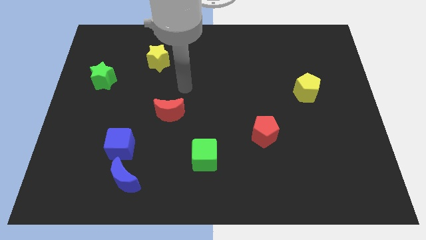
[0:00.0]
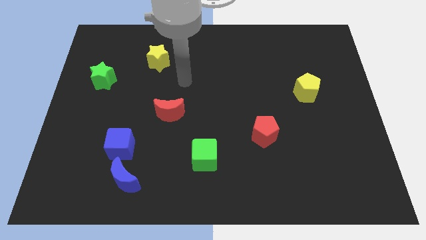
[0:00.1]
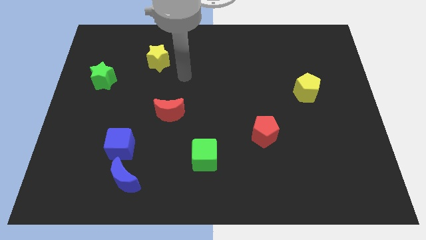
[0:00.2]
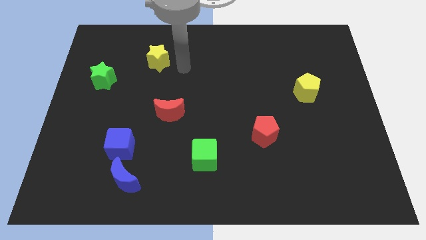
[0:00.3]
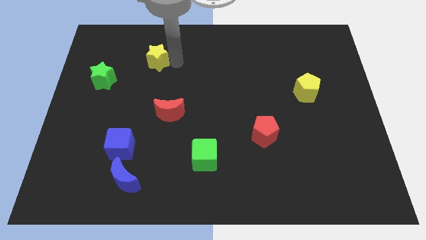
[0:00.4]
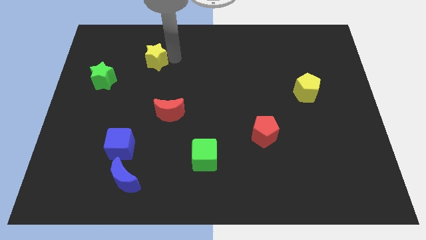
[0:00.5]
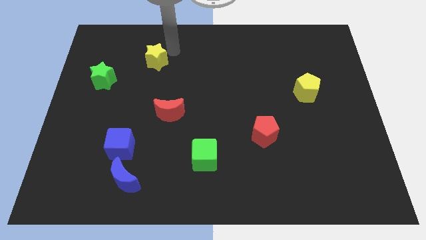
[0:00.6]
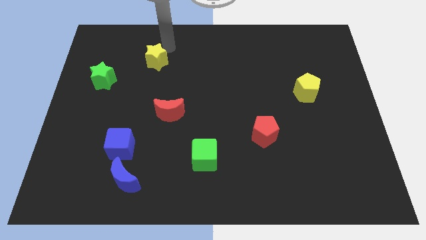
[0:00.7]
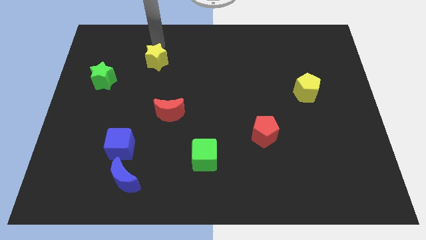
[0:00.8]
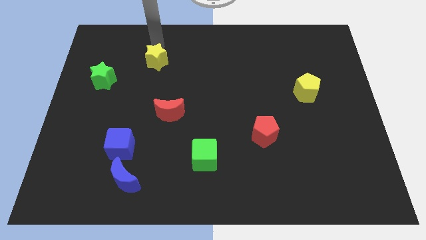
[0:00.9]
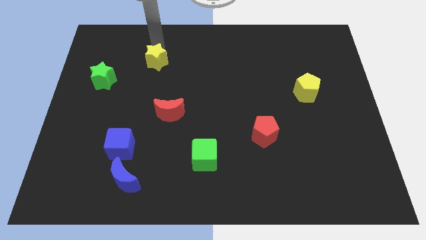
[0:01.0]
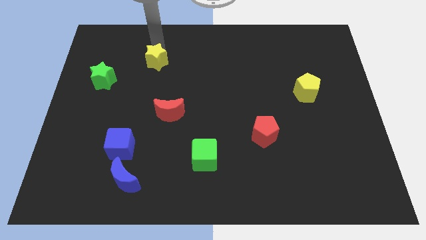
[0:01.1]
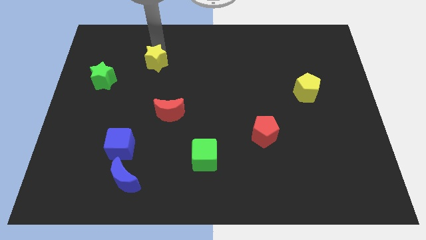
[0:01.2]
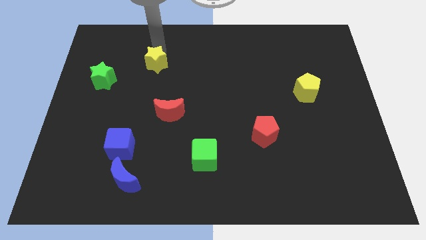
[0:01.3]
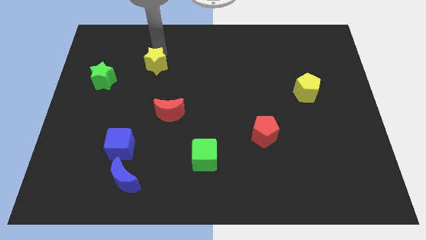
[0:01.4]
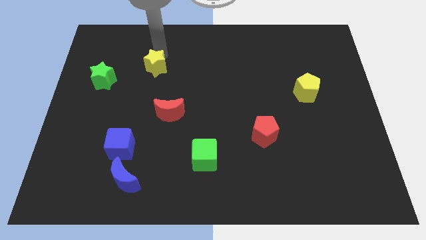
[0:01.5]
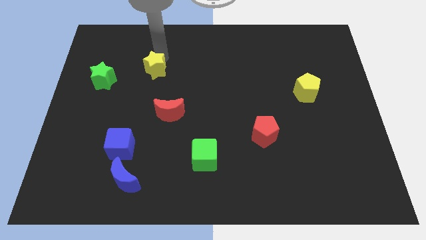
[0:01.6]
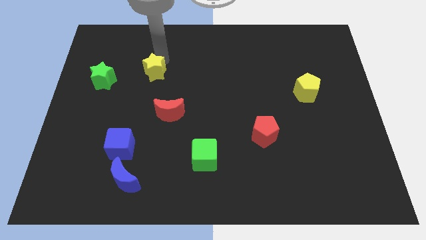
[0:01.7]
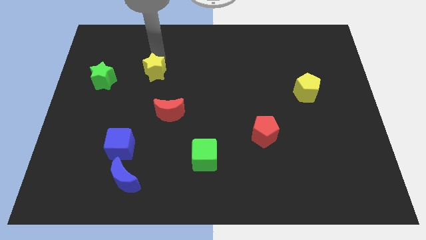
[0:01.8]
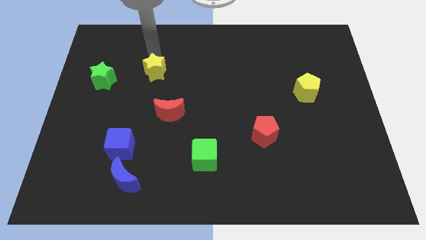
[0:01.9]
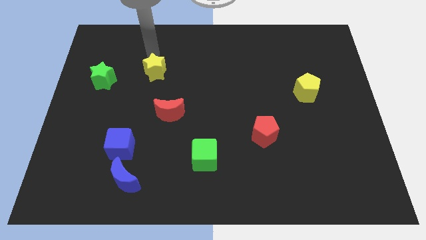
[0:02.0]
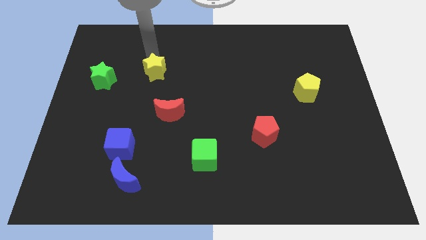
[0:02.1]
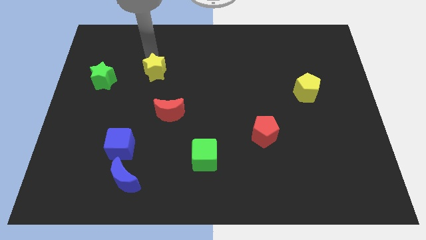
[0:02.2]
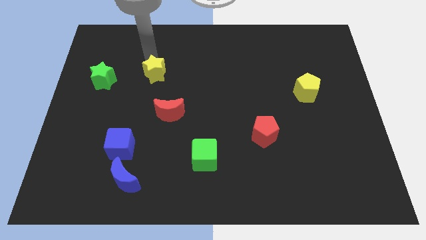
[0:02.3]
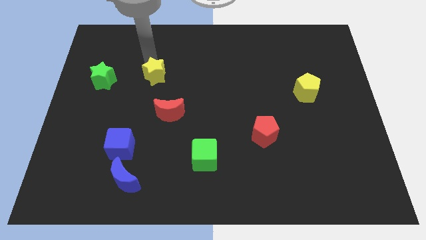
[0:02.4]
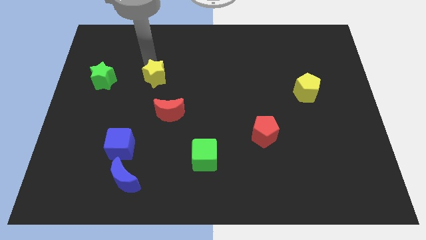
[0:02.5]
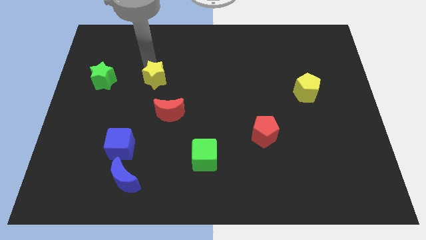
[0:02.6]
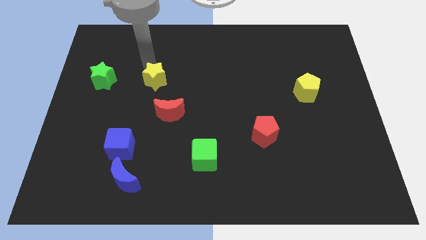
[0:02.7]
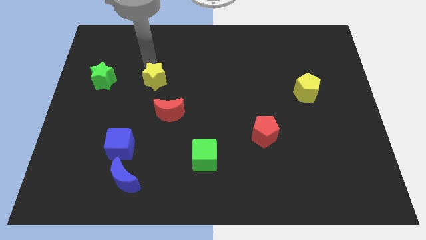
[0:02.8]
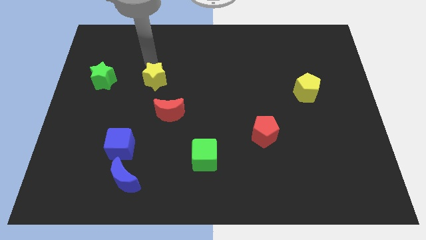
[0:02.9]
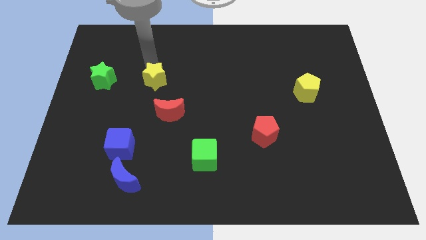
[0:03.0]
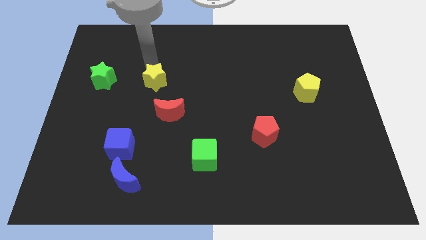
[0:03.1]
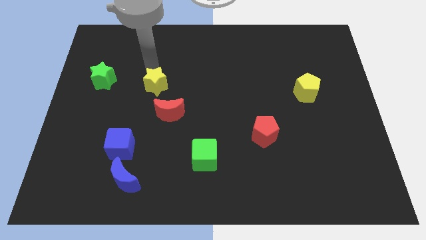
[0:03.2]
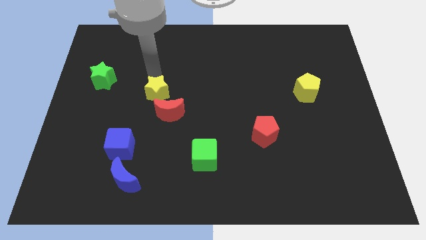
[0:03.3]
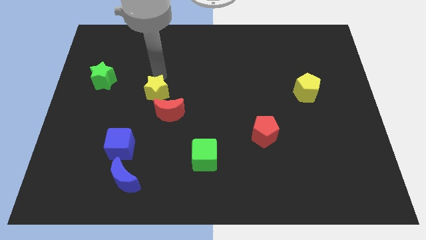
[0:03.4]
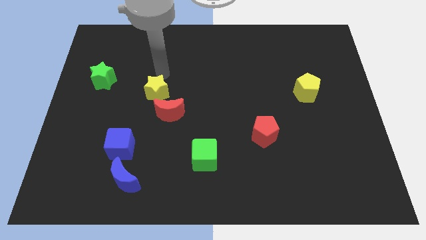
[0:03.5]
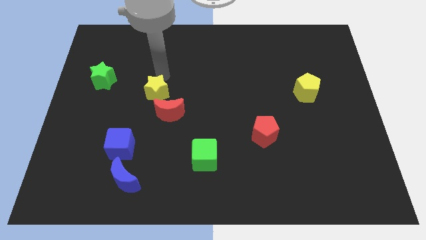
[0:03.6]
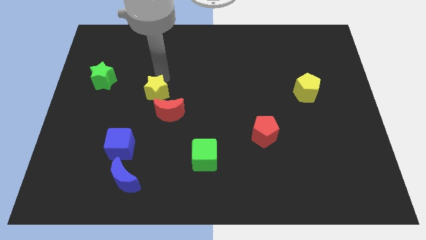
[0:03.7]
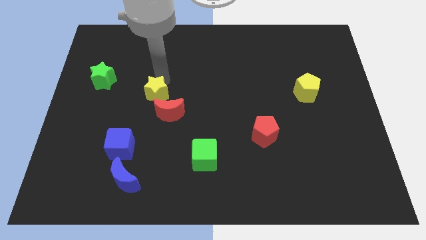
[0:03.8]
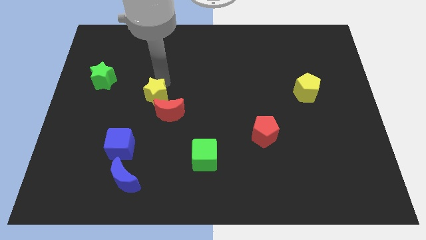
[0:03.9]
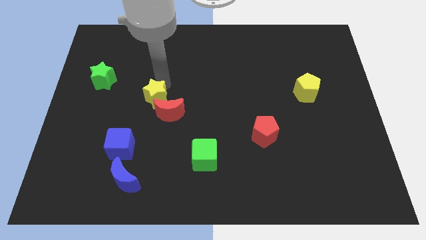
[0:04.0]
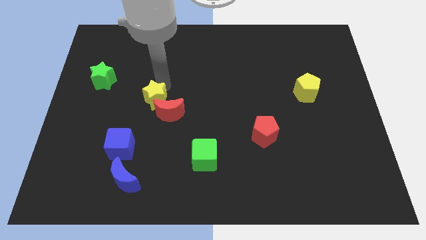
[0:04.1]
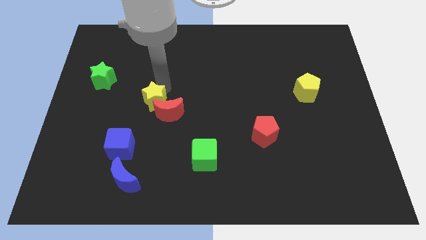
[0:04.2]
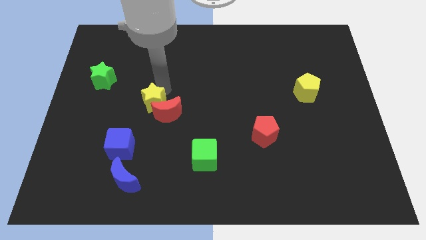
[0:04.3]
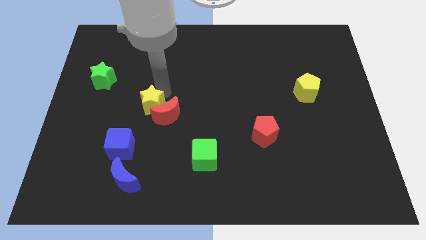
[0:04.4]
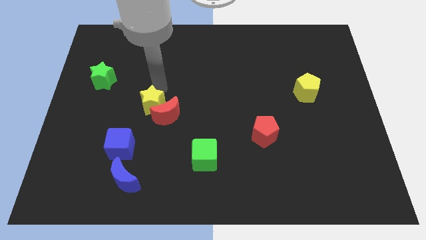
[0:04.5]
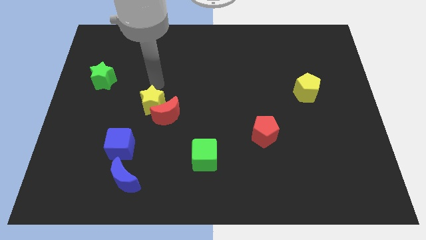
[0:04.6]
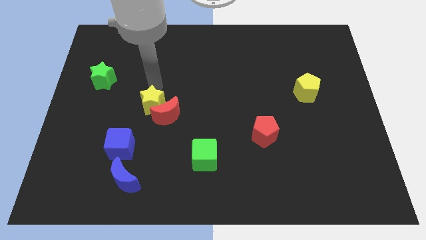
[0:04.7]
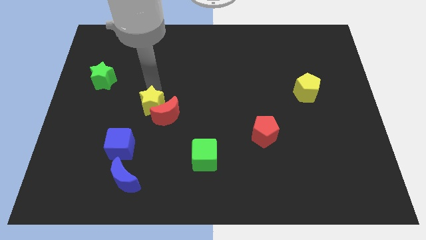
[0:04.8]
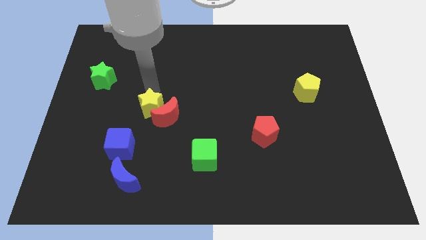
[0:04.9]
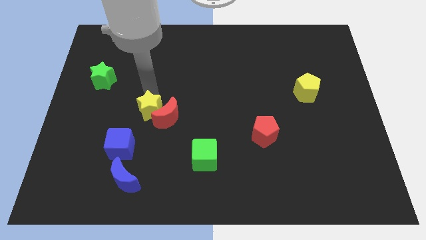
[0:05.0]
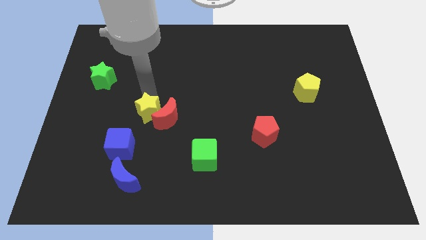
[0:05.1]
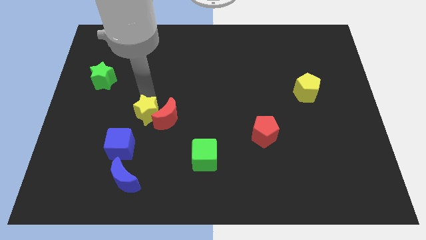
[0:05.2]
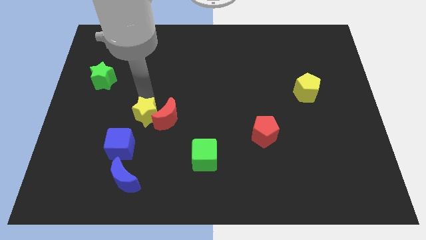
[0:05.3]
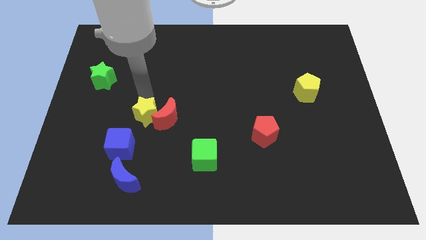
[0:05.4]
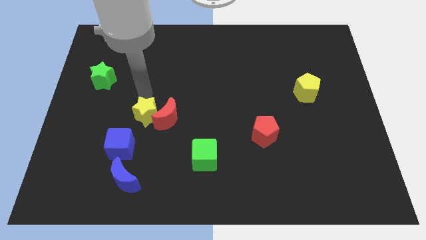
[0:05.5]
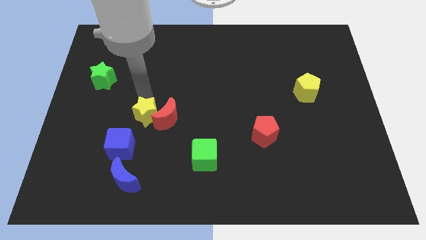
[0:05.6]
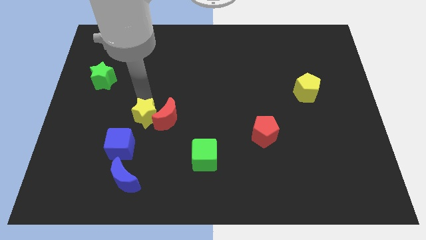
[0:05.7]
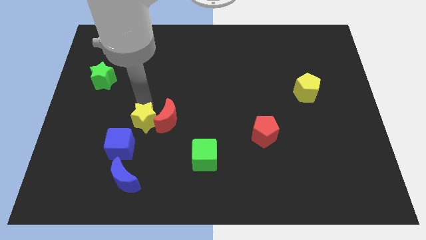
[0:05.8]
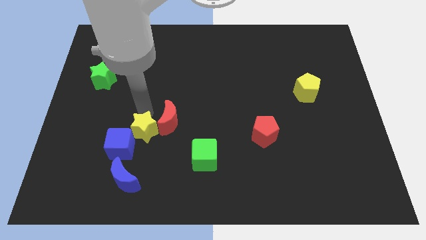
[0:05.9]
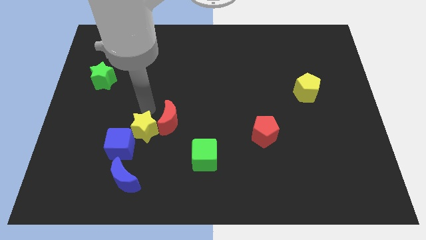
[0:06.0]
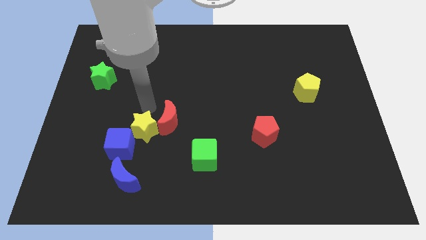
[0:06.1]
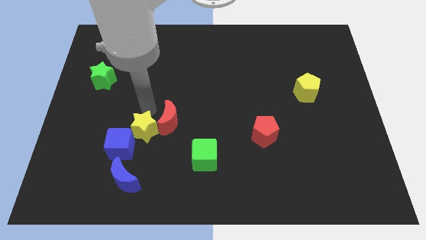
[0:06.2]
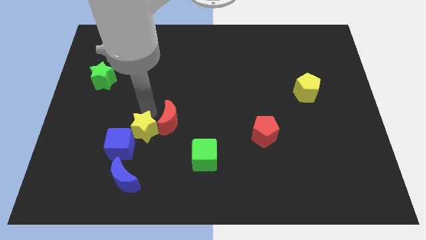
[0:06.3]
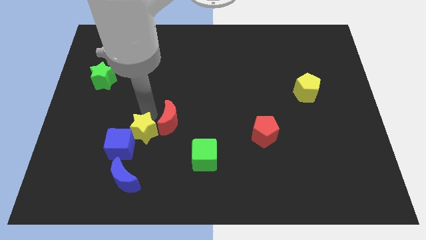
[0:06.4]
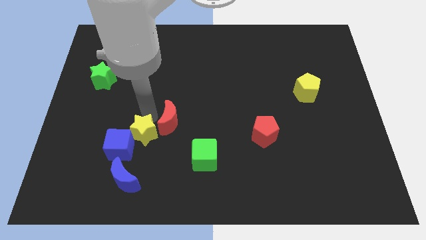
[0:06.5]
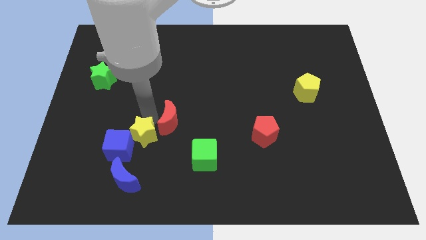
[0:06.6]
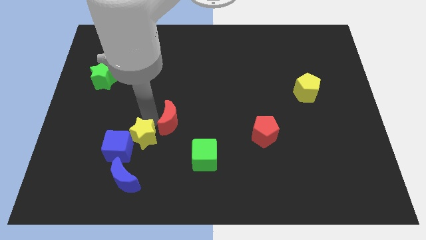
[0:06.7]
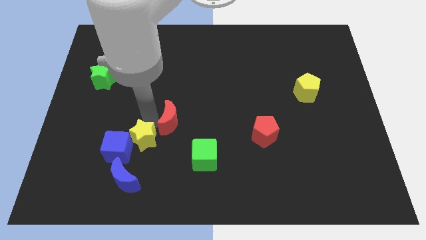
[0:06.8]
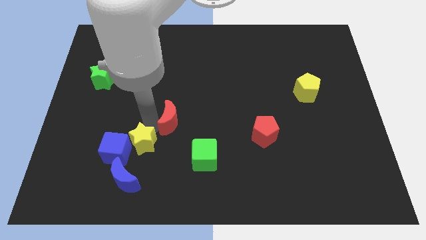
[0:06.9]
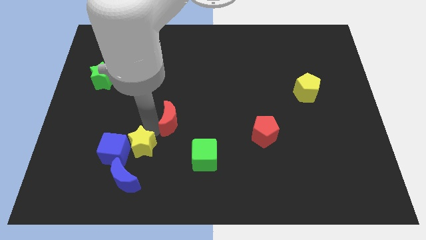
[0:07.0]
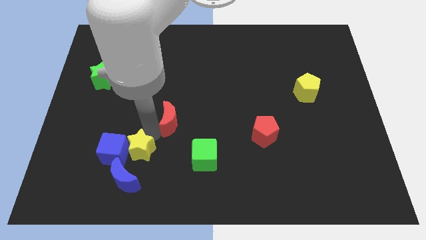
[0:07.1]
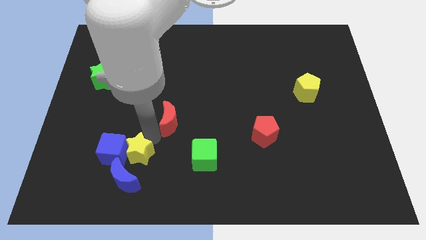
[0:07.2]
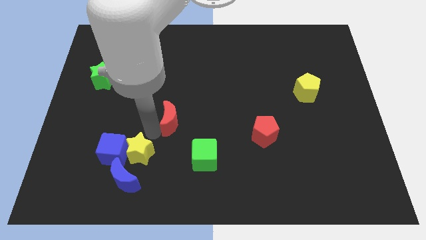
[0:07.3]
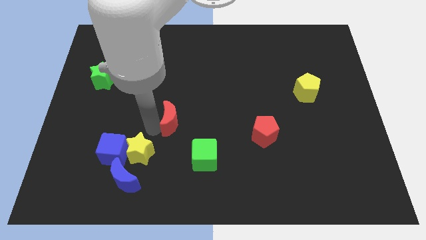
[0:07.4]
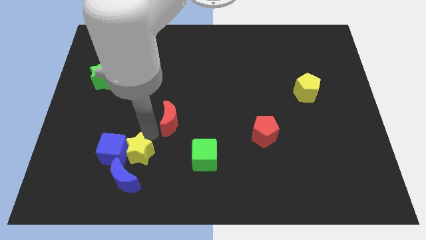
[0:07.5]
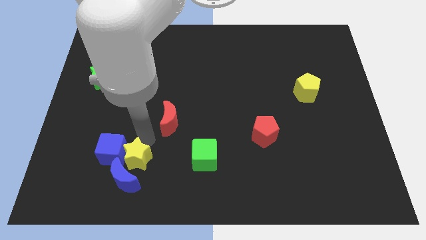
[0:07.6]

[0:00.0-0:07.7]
push the yellow star next to the blue moon
